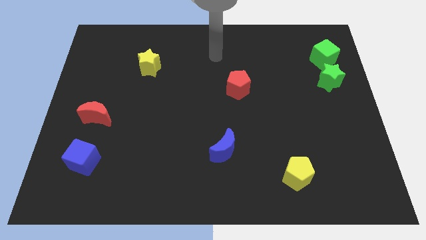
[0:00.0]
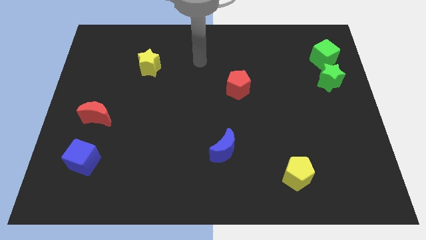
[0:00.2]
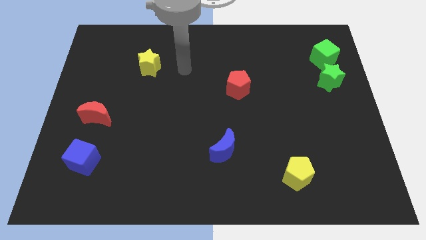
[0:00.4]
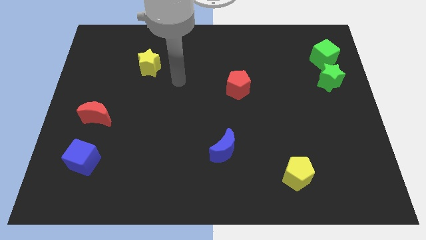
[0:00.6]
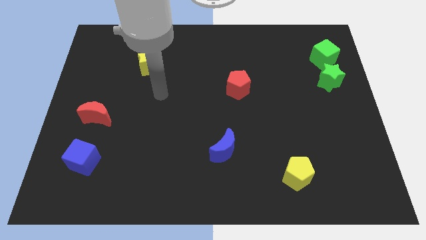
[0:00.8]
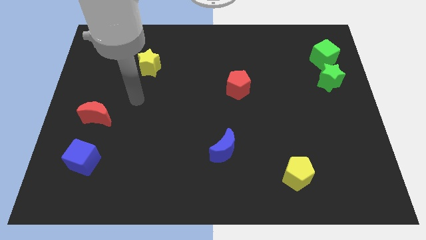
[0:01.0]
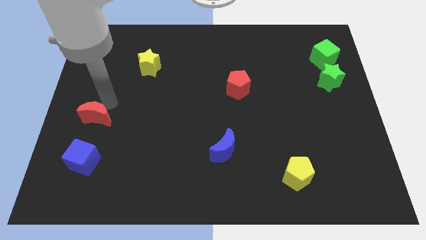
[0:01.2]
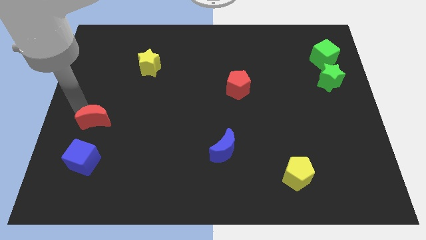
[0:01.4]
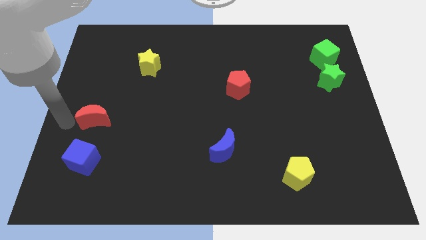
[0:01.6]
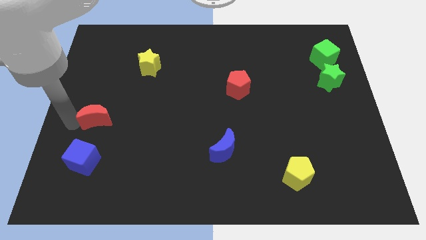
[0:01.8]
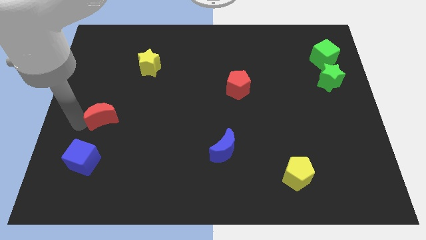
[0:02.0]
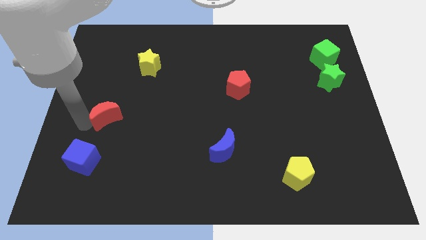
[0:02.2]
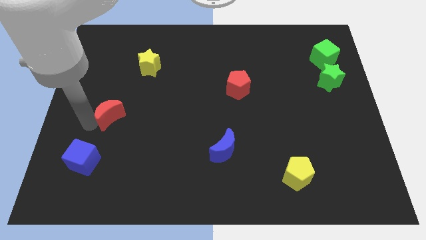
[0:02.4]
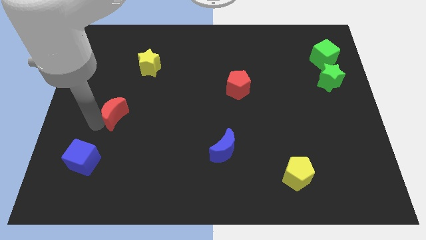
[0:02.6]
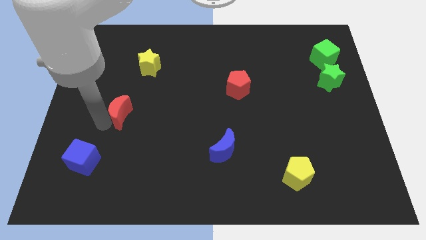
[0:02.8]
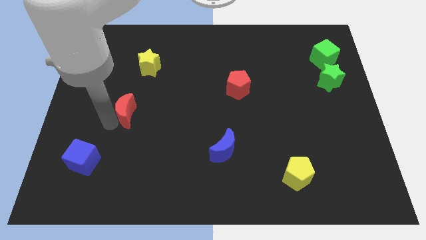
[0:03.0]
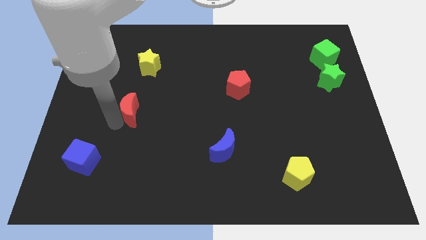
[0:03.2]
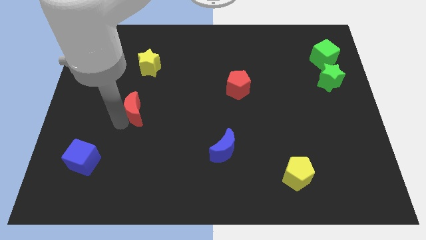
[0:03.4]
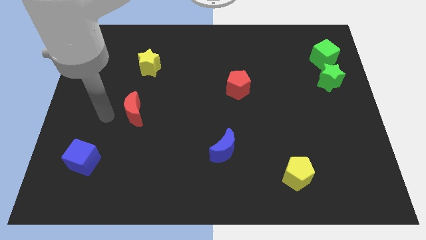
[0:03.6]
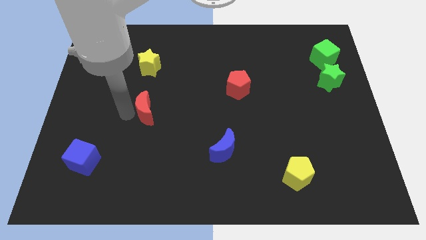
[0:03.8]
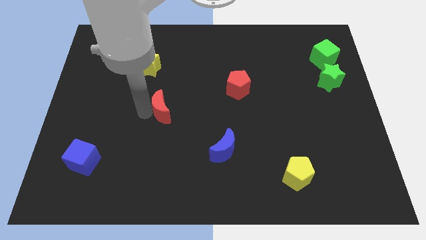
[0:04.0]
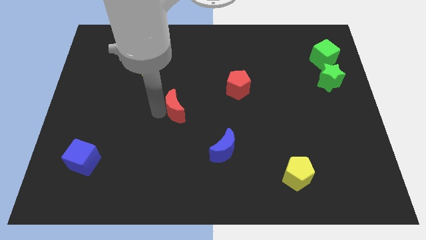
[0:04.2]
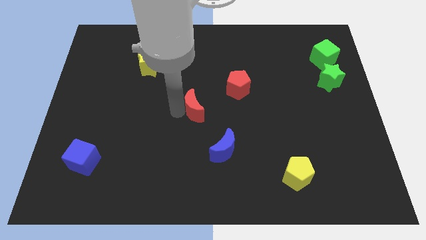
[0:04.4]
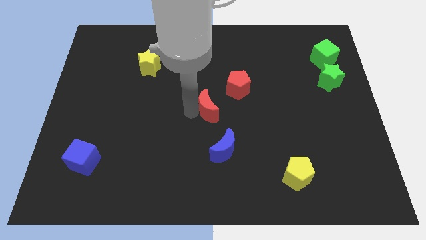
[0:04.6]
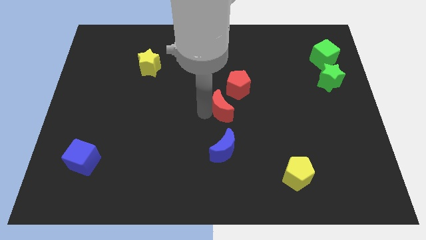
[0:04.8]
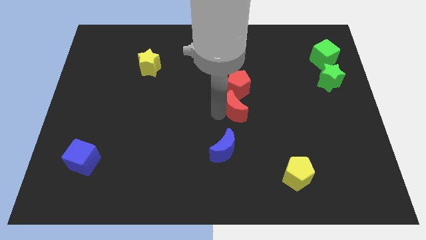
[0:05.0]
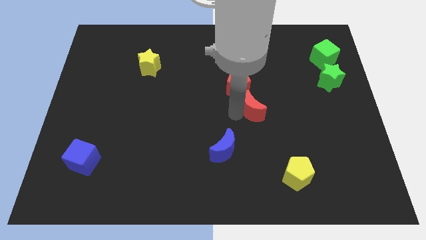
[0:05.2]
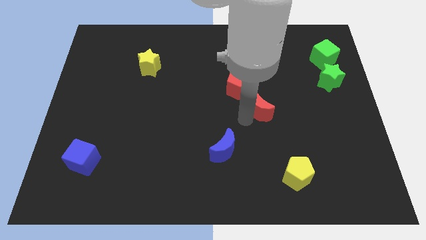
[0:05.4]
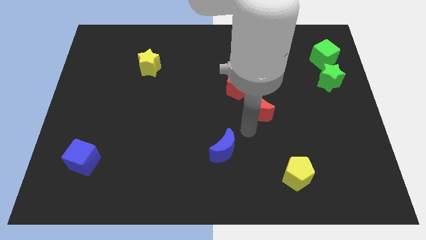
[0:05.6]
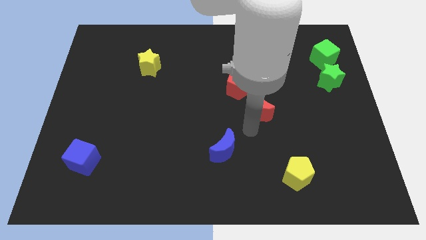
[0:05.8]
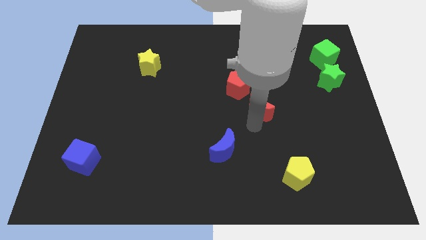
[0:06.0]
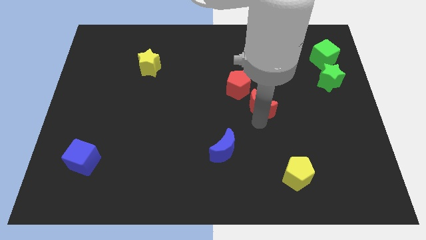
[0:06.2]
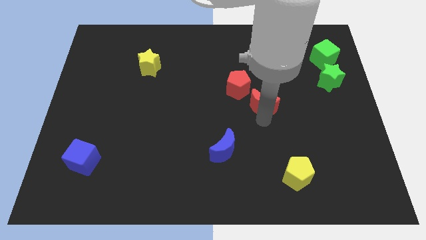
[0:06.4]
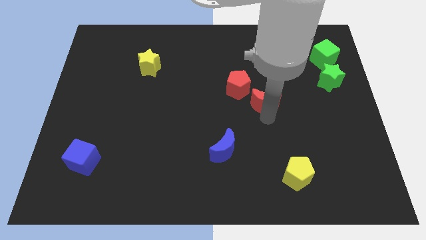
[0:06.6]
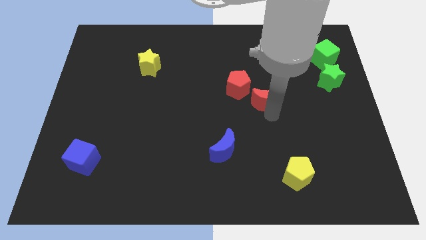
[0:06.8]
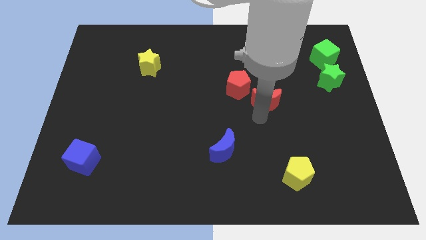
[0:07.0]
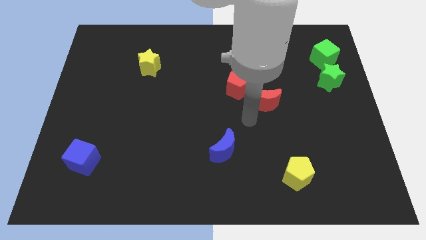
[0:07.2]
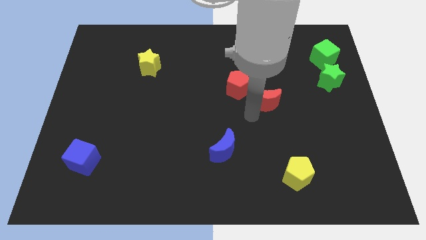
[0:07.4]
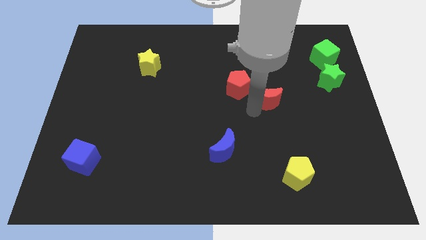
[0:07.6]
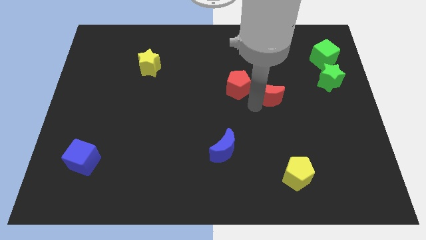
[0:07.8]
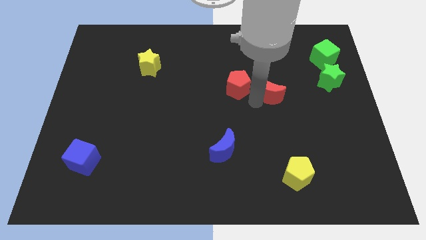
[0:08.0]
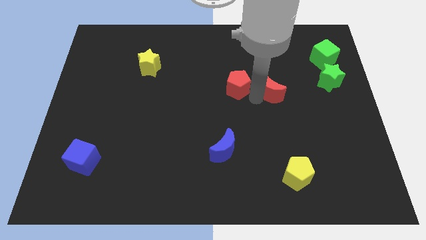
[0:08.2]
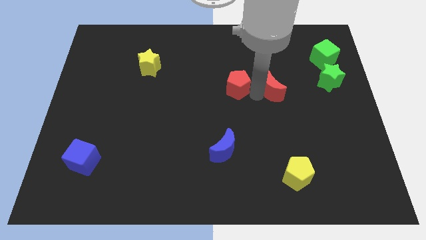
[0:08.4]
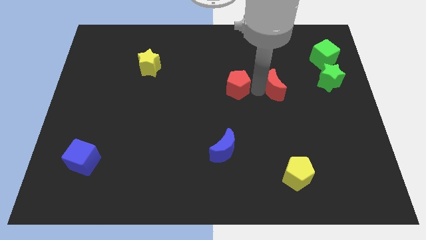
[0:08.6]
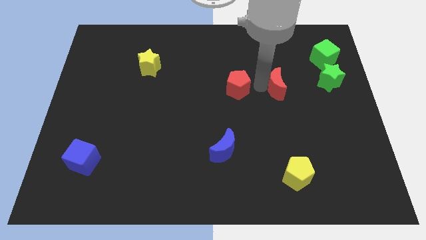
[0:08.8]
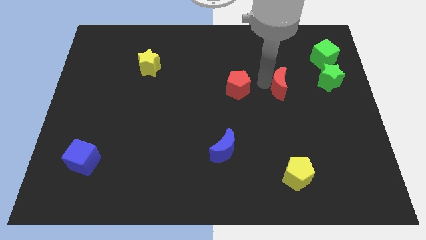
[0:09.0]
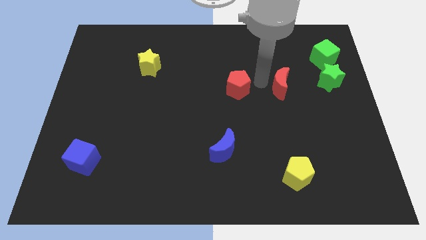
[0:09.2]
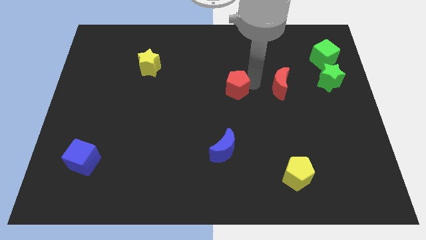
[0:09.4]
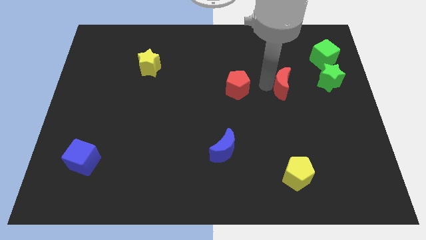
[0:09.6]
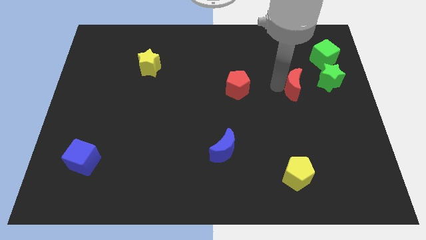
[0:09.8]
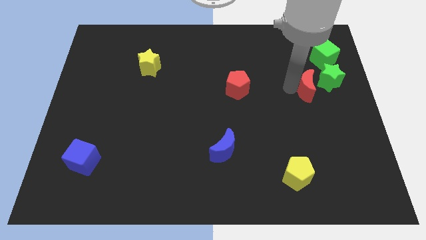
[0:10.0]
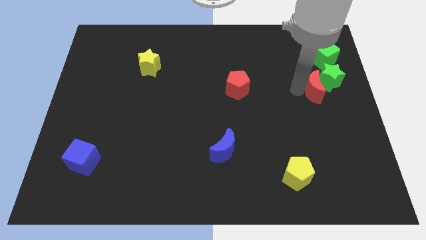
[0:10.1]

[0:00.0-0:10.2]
slide the red moon towards the green star

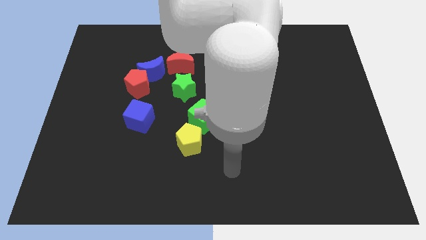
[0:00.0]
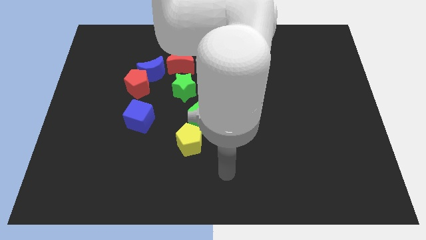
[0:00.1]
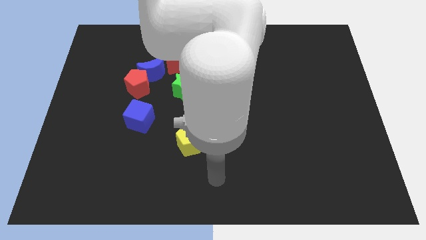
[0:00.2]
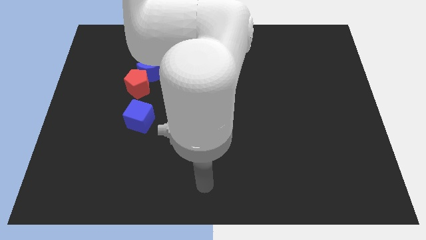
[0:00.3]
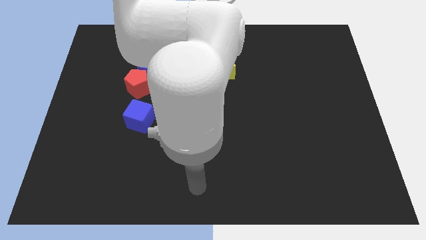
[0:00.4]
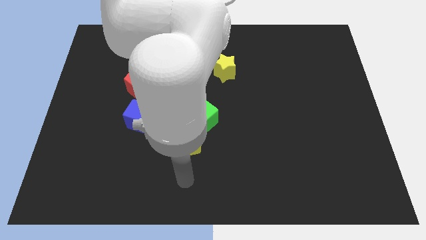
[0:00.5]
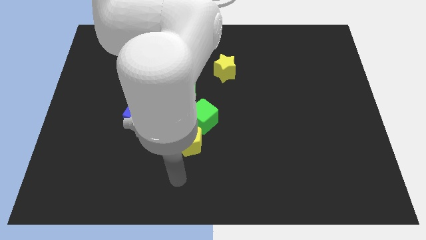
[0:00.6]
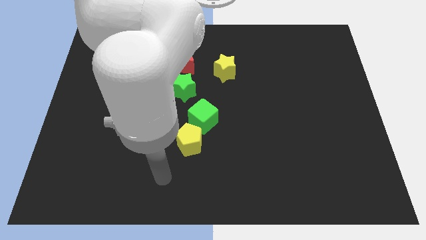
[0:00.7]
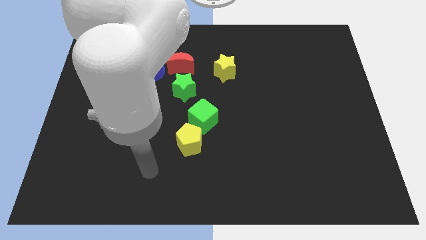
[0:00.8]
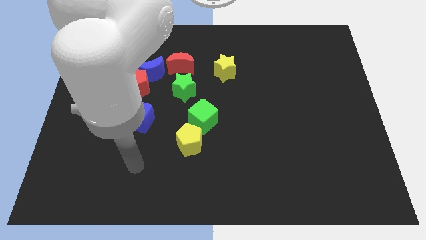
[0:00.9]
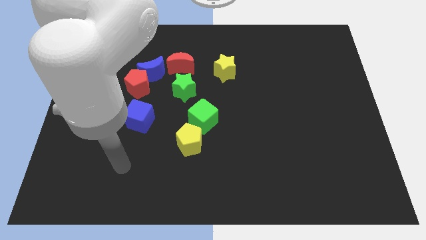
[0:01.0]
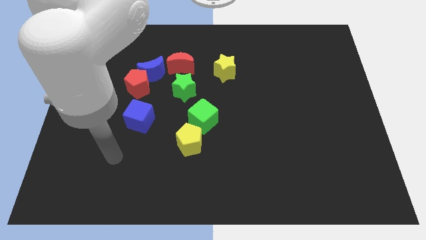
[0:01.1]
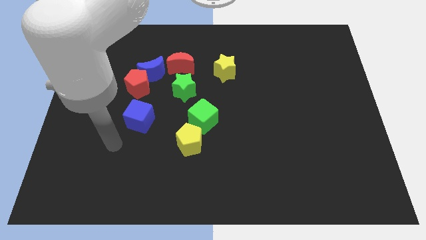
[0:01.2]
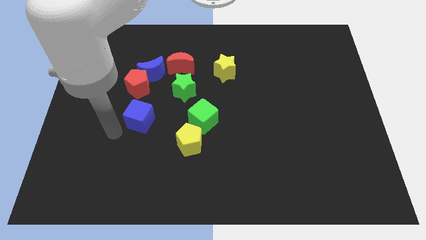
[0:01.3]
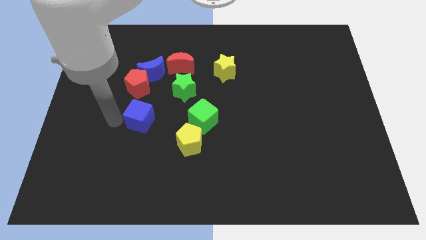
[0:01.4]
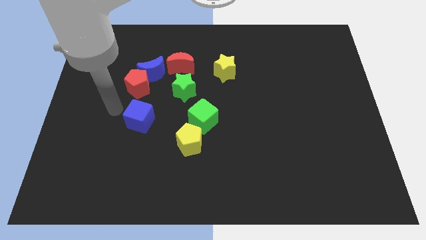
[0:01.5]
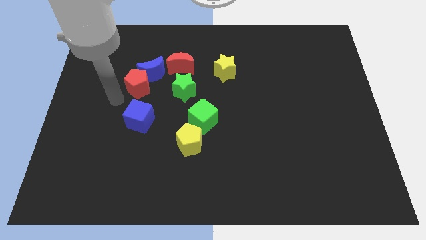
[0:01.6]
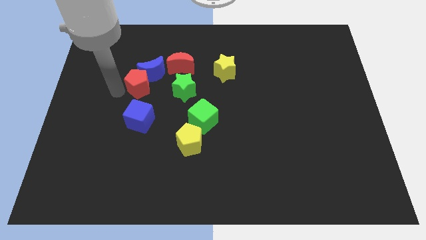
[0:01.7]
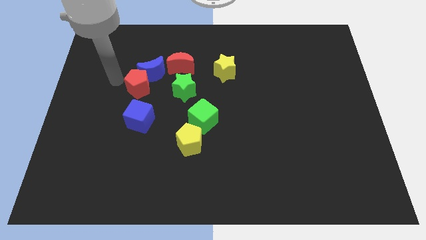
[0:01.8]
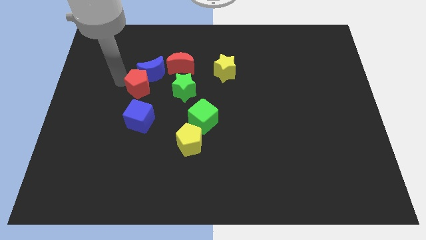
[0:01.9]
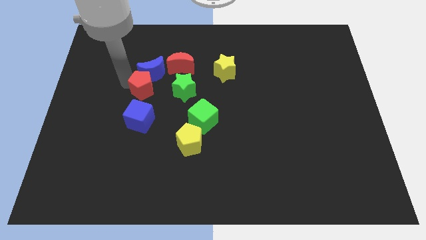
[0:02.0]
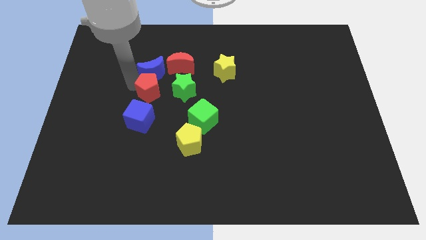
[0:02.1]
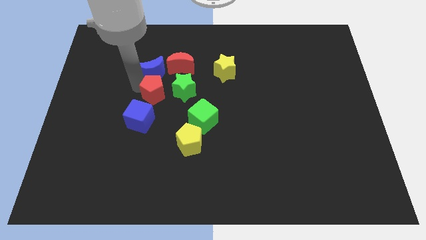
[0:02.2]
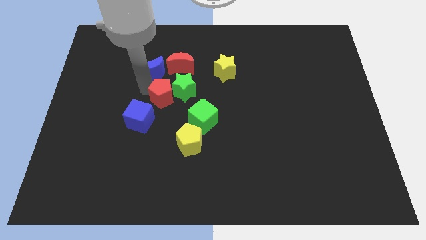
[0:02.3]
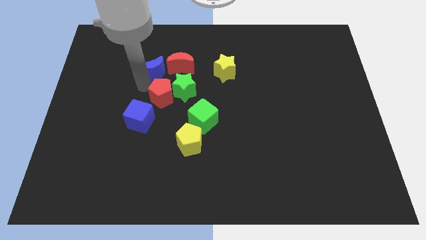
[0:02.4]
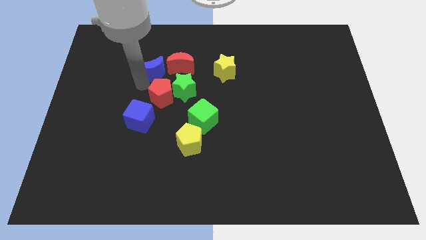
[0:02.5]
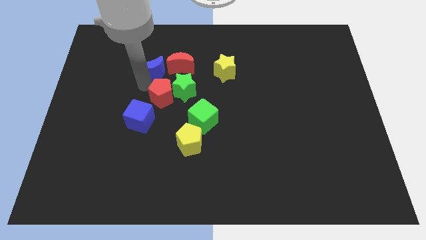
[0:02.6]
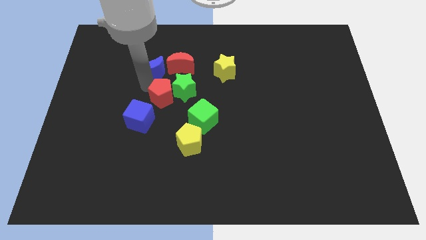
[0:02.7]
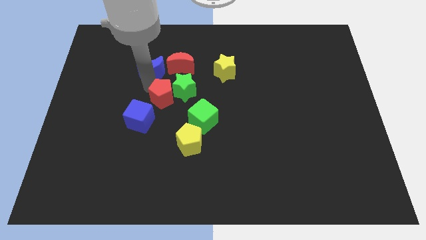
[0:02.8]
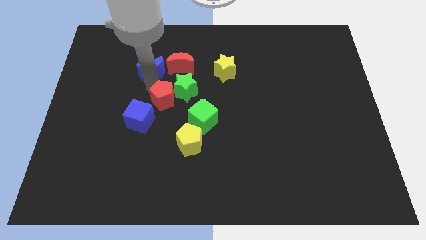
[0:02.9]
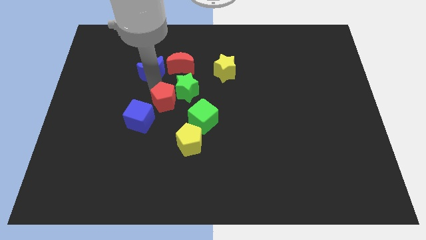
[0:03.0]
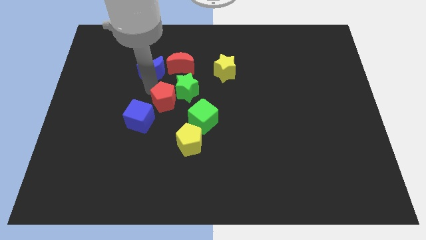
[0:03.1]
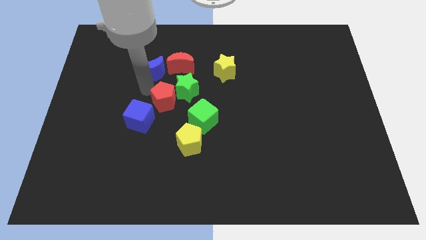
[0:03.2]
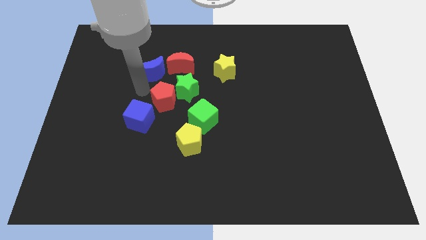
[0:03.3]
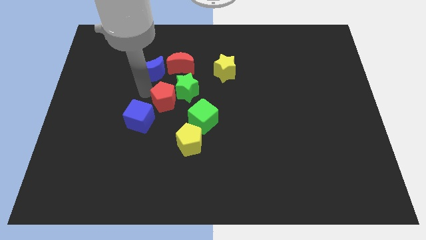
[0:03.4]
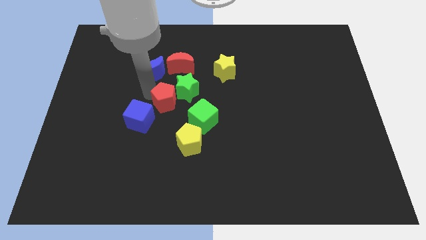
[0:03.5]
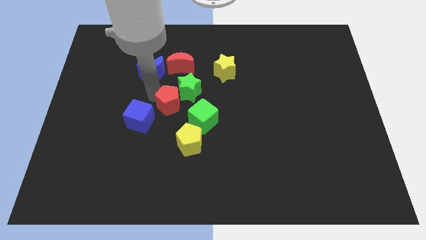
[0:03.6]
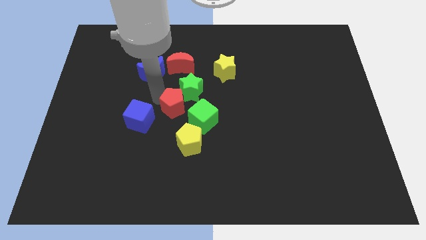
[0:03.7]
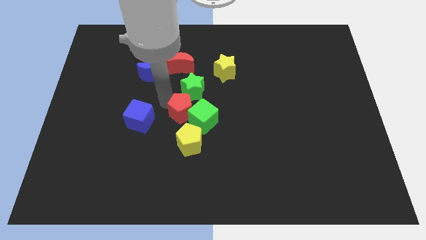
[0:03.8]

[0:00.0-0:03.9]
slide the red pentagon towards the green cube
